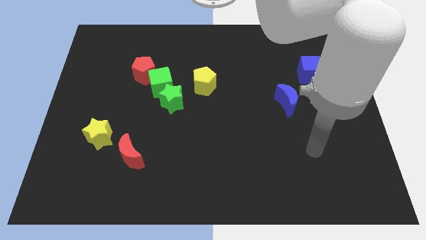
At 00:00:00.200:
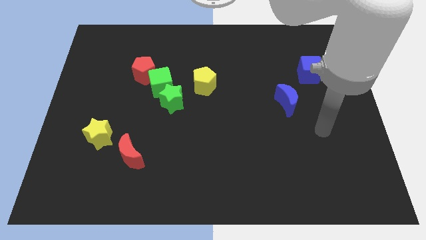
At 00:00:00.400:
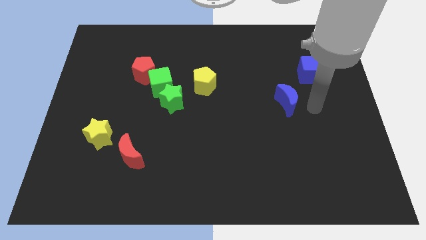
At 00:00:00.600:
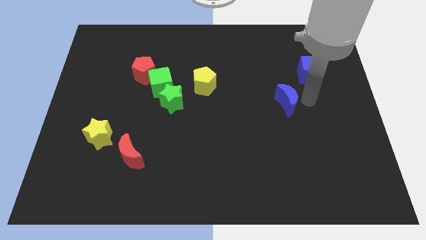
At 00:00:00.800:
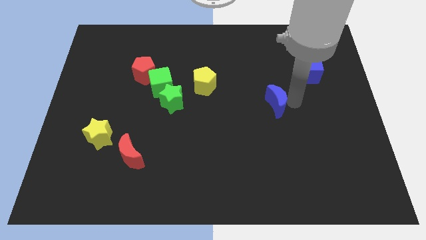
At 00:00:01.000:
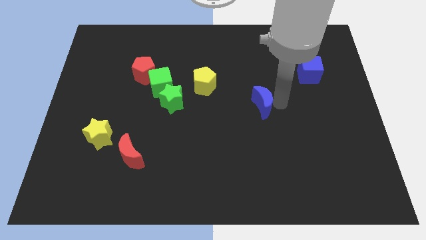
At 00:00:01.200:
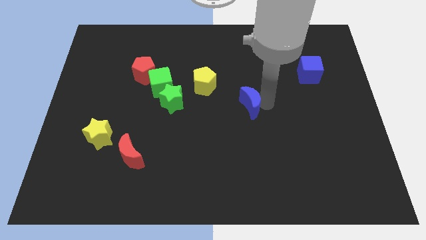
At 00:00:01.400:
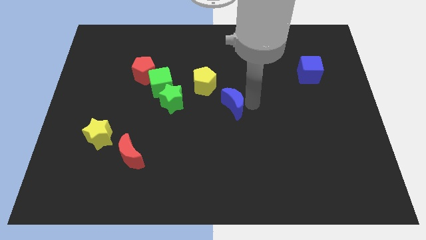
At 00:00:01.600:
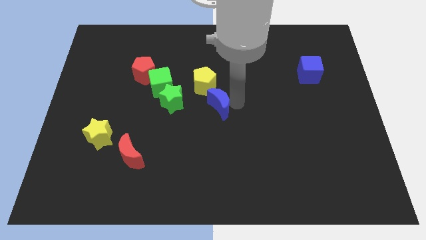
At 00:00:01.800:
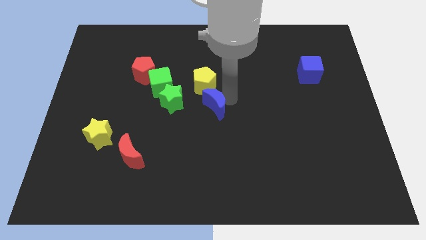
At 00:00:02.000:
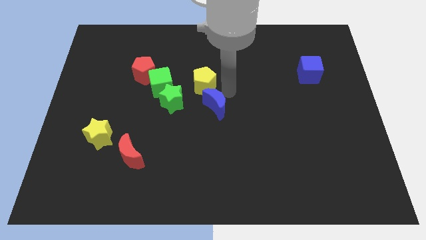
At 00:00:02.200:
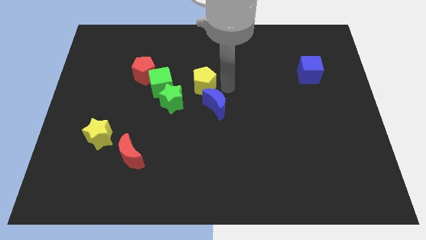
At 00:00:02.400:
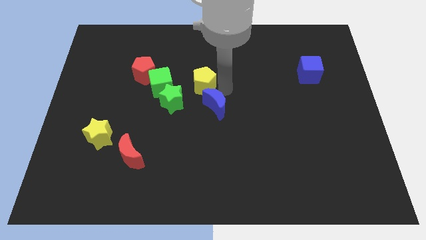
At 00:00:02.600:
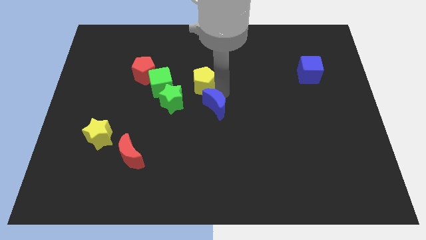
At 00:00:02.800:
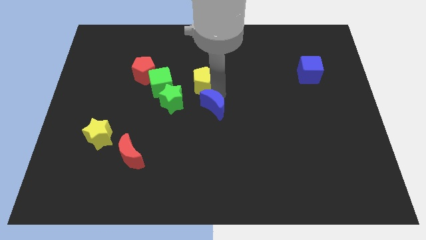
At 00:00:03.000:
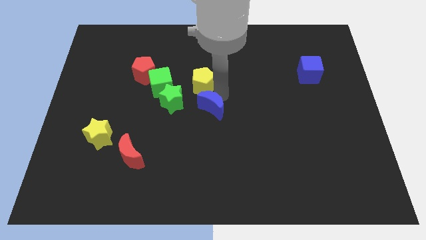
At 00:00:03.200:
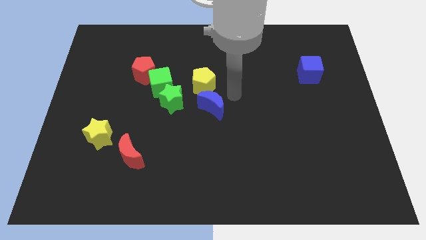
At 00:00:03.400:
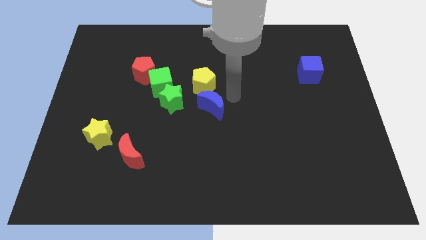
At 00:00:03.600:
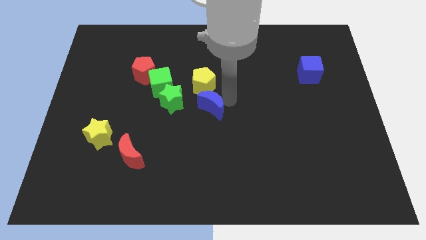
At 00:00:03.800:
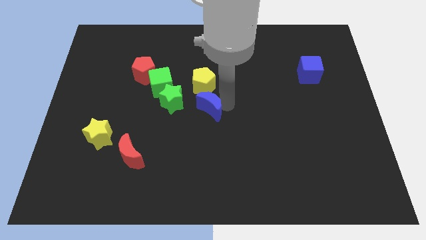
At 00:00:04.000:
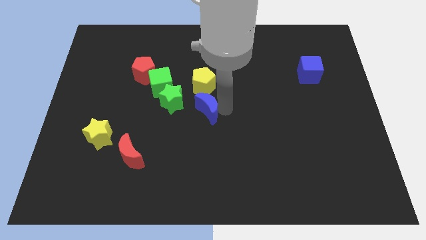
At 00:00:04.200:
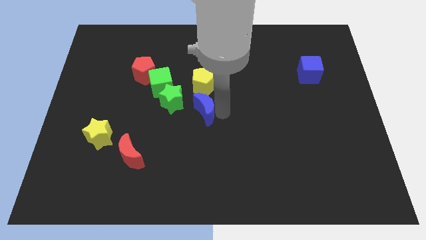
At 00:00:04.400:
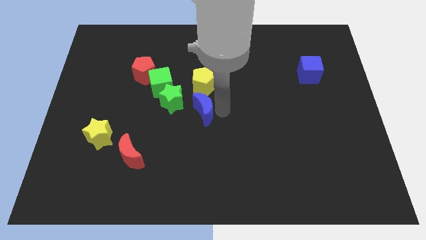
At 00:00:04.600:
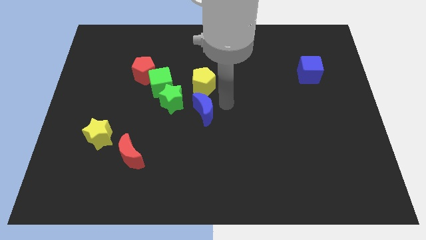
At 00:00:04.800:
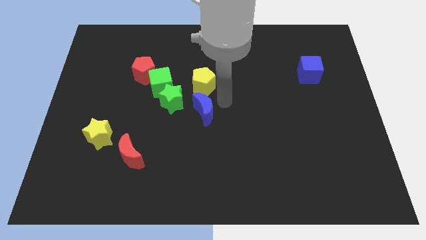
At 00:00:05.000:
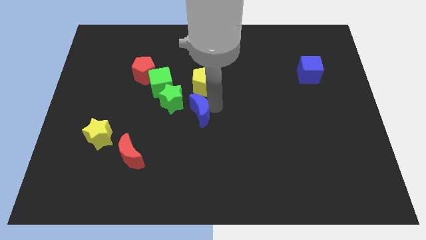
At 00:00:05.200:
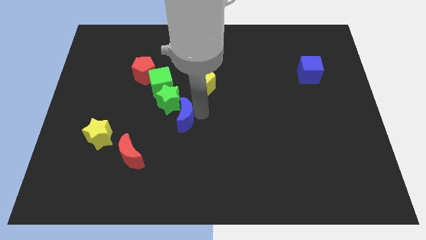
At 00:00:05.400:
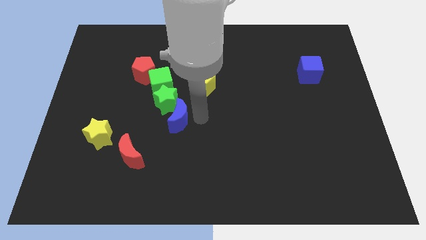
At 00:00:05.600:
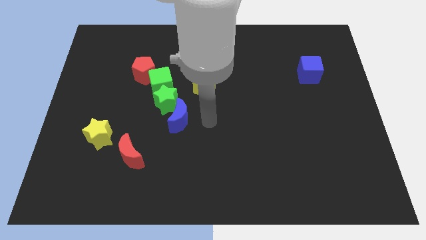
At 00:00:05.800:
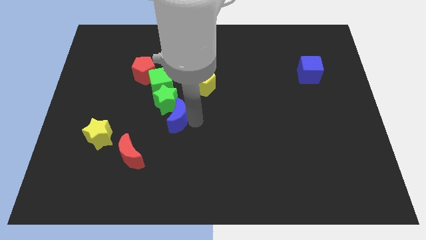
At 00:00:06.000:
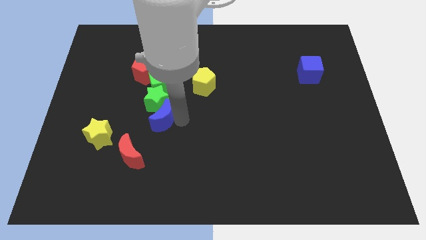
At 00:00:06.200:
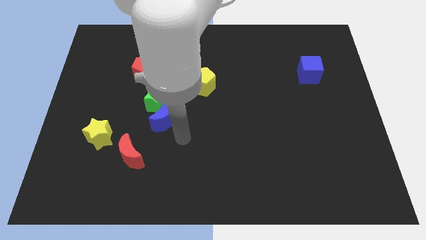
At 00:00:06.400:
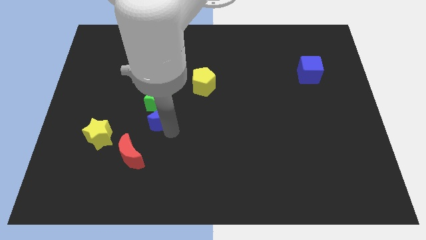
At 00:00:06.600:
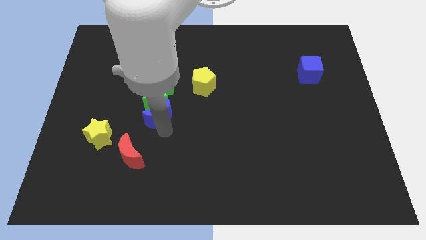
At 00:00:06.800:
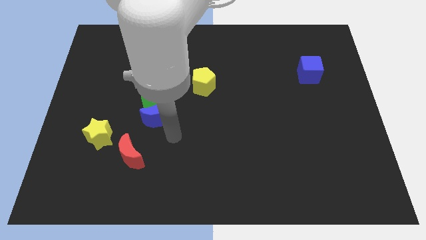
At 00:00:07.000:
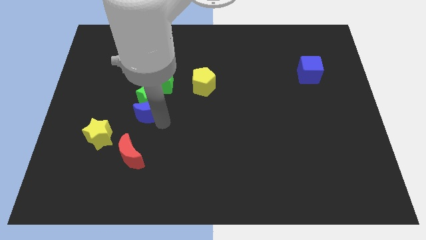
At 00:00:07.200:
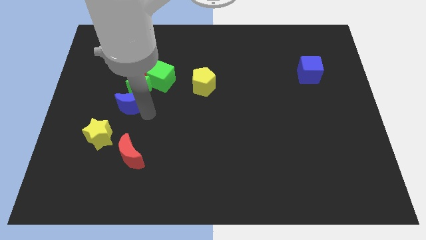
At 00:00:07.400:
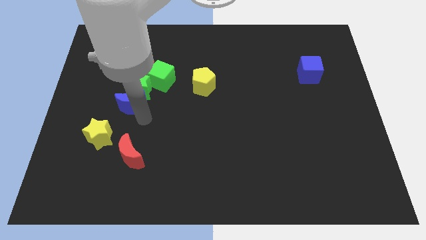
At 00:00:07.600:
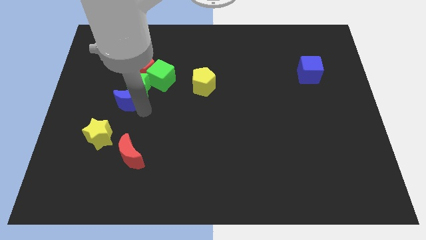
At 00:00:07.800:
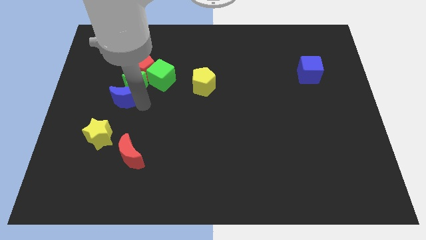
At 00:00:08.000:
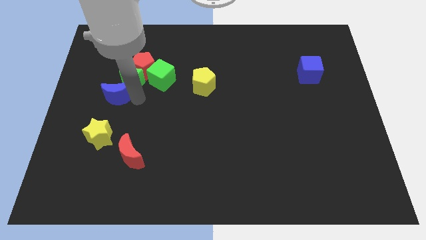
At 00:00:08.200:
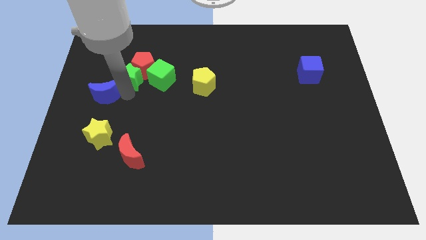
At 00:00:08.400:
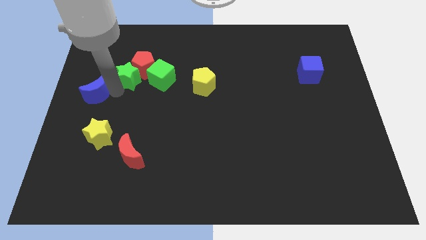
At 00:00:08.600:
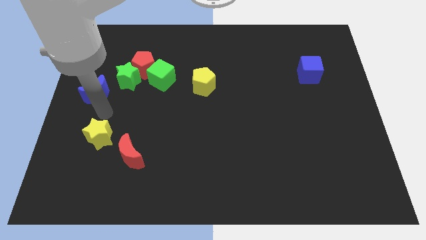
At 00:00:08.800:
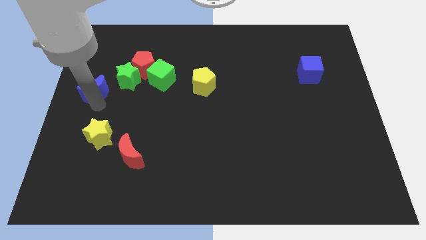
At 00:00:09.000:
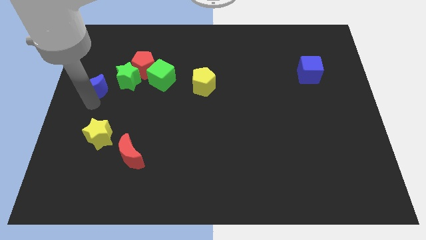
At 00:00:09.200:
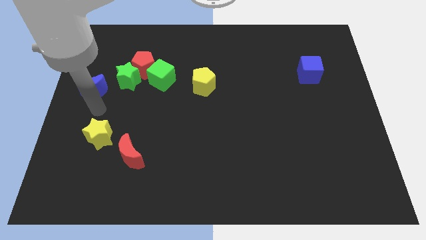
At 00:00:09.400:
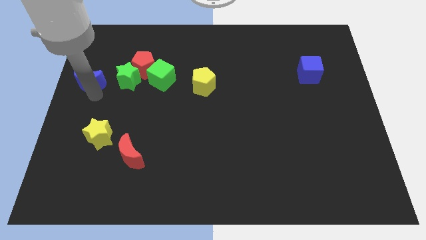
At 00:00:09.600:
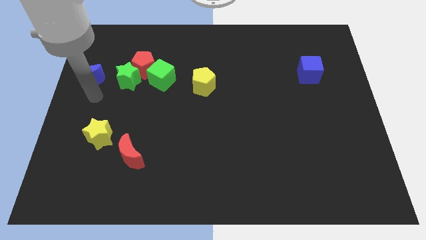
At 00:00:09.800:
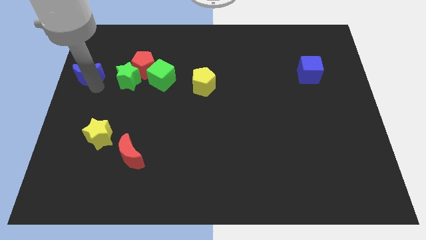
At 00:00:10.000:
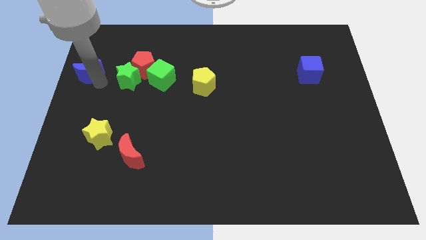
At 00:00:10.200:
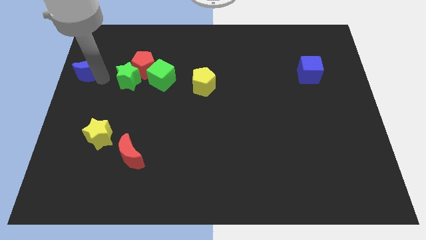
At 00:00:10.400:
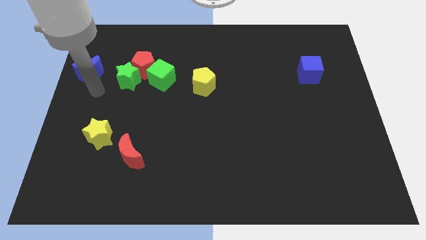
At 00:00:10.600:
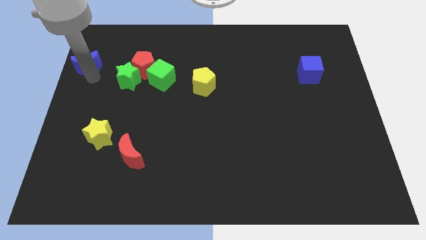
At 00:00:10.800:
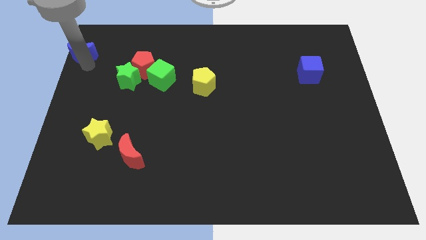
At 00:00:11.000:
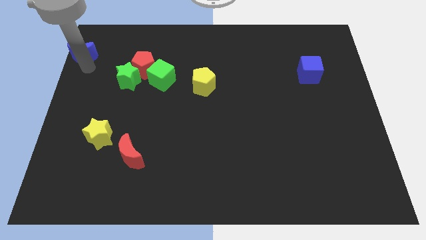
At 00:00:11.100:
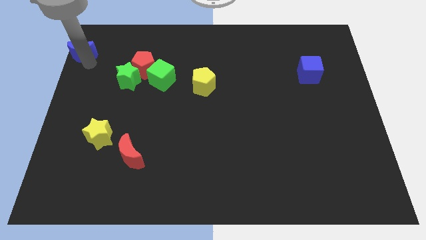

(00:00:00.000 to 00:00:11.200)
put the blue moon to the upper left corner

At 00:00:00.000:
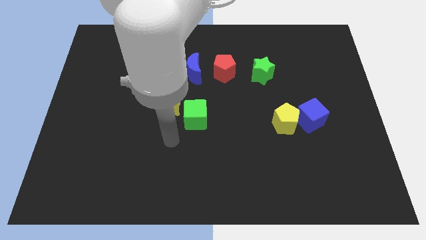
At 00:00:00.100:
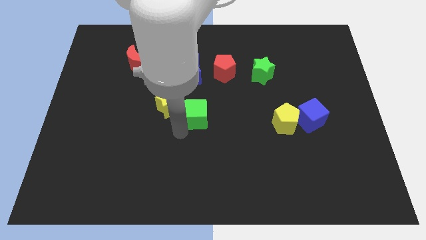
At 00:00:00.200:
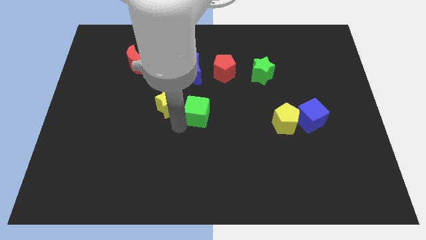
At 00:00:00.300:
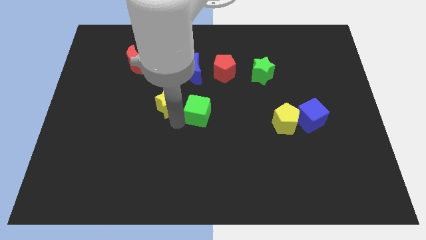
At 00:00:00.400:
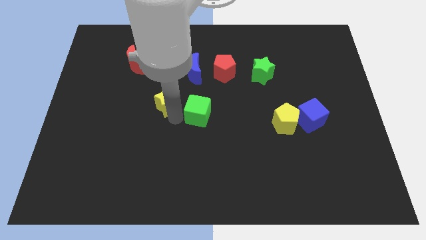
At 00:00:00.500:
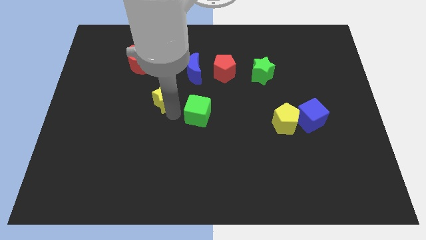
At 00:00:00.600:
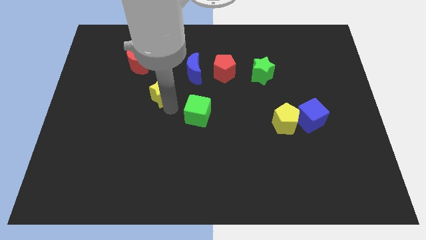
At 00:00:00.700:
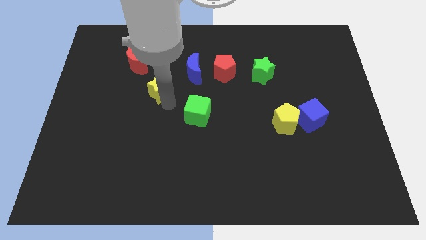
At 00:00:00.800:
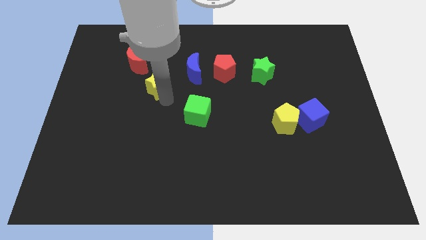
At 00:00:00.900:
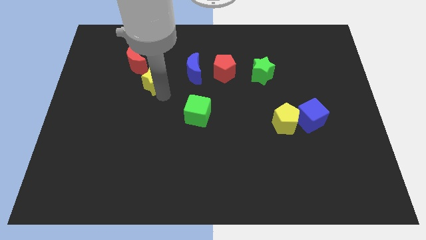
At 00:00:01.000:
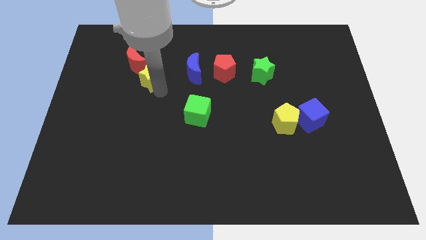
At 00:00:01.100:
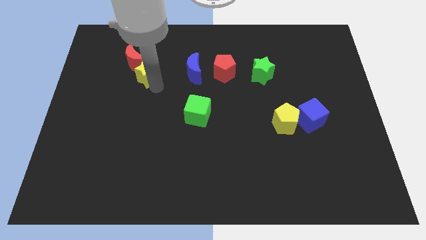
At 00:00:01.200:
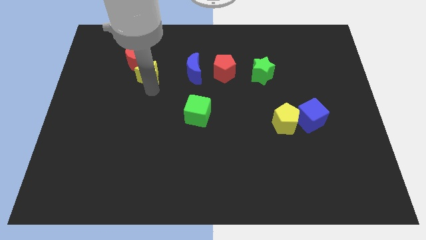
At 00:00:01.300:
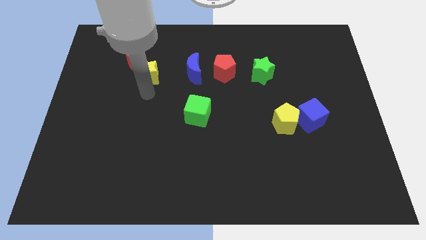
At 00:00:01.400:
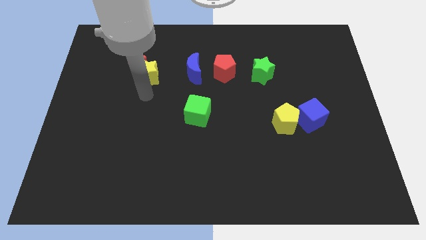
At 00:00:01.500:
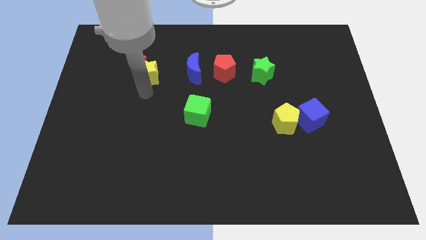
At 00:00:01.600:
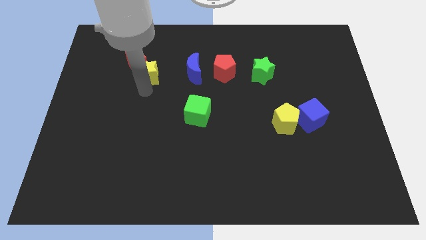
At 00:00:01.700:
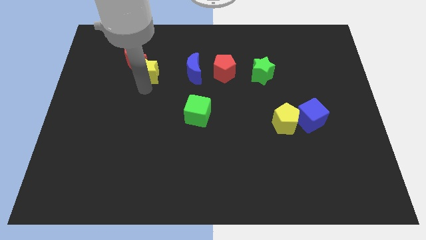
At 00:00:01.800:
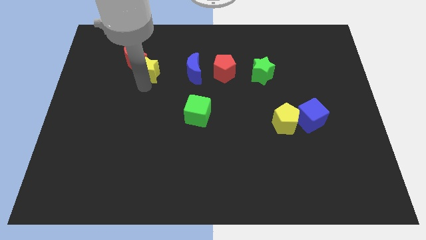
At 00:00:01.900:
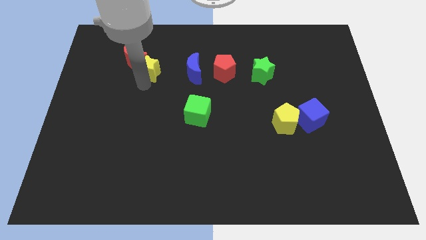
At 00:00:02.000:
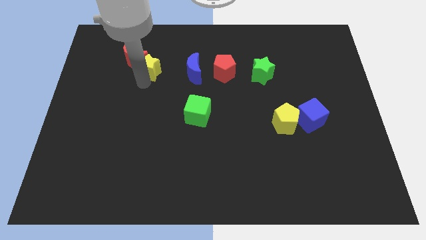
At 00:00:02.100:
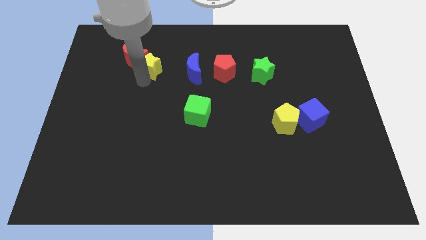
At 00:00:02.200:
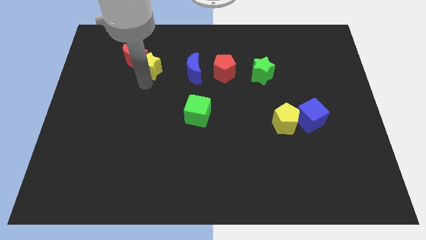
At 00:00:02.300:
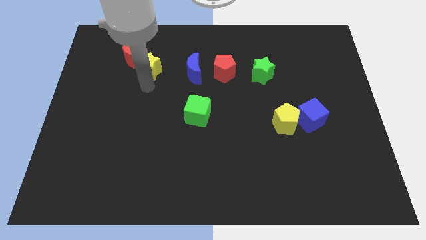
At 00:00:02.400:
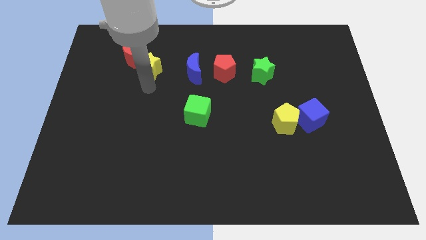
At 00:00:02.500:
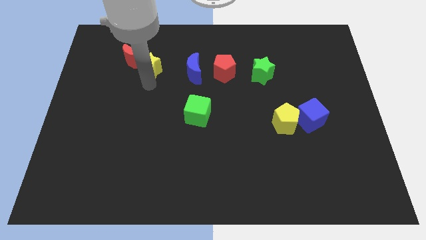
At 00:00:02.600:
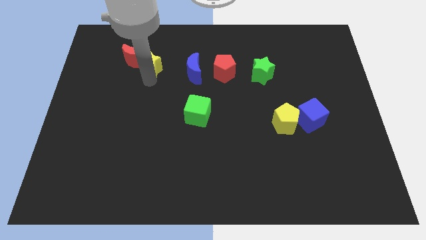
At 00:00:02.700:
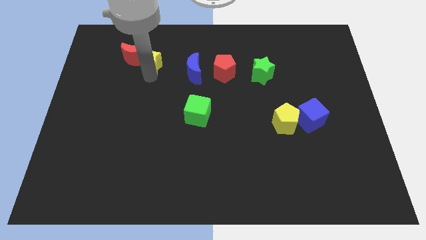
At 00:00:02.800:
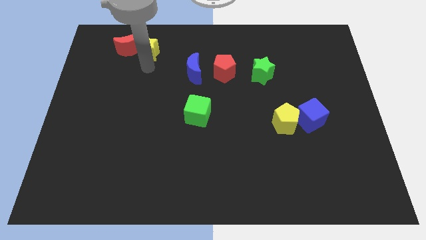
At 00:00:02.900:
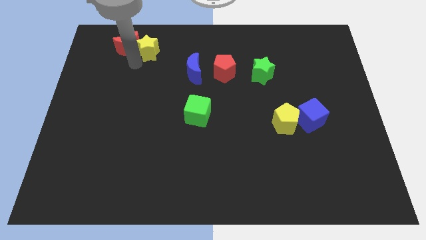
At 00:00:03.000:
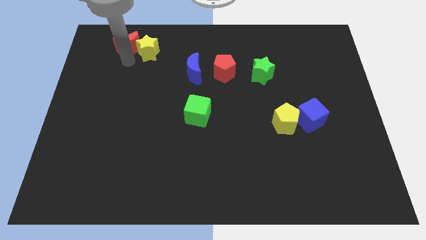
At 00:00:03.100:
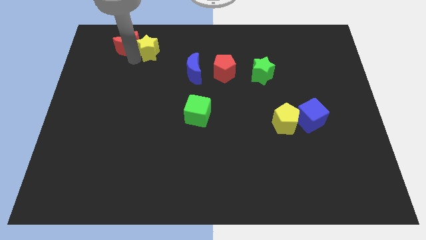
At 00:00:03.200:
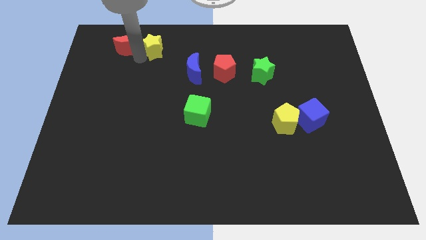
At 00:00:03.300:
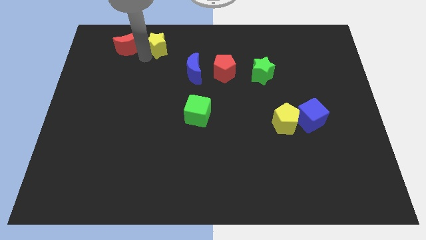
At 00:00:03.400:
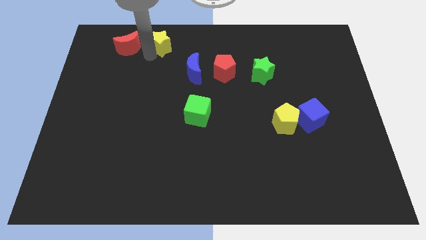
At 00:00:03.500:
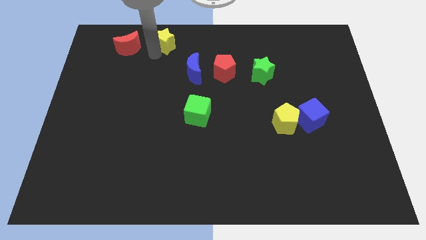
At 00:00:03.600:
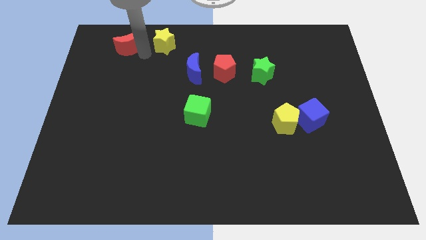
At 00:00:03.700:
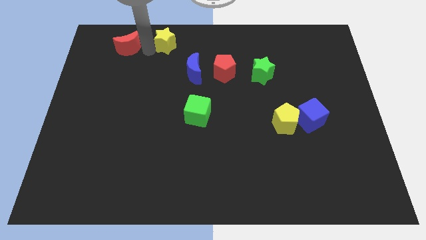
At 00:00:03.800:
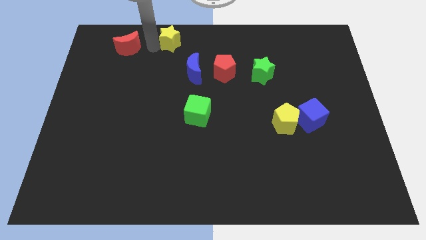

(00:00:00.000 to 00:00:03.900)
push the yellow star to the towards your base
